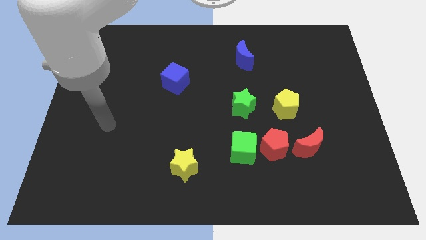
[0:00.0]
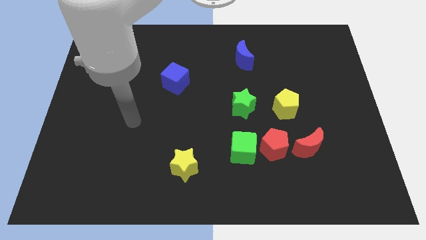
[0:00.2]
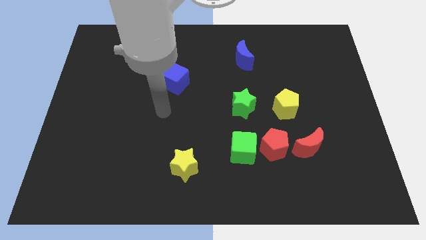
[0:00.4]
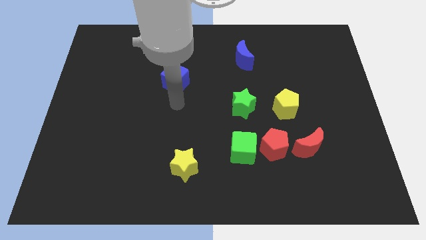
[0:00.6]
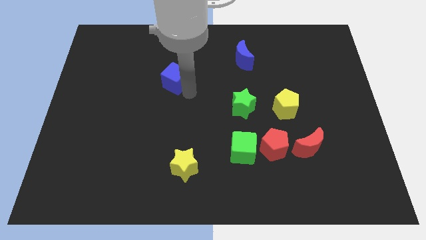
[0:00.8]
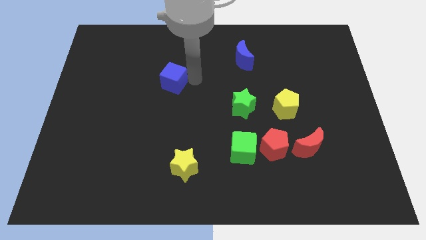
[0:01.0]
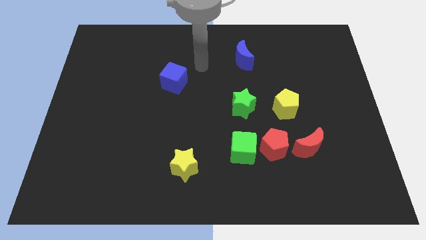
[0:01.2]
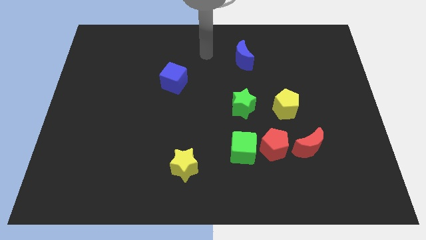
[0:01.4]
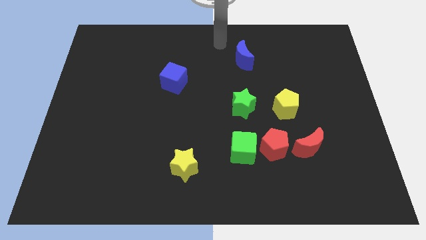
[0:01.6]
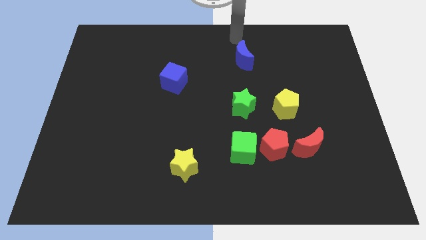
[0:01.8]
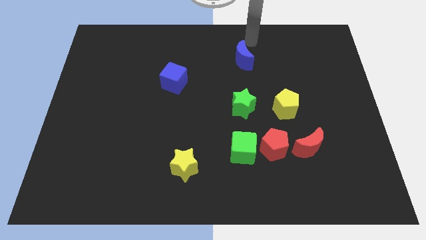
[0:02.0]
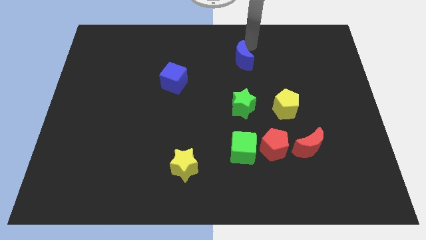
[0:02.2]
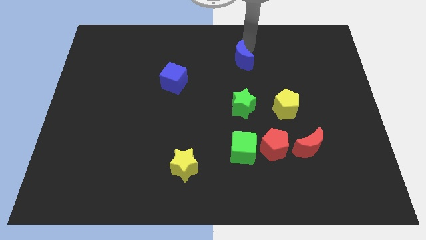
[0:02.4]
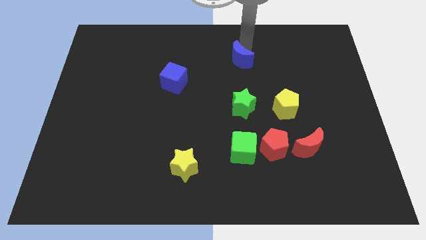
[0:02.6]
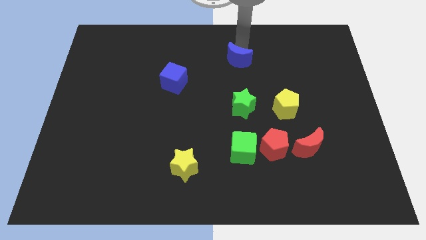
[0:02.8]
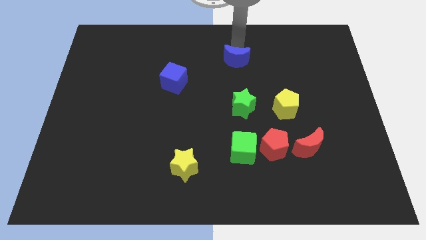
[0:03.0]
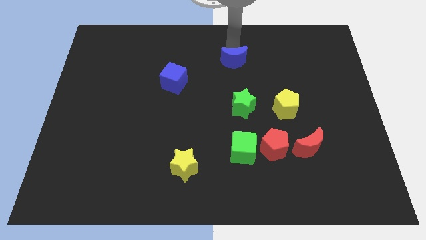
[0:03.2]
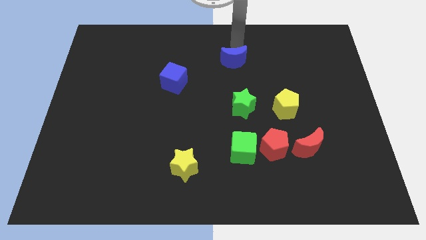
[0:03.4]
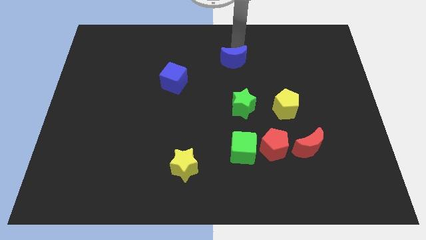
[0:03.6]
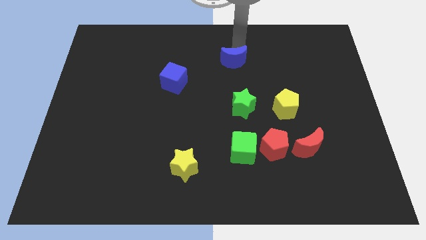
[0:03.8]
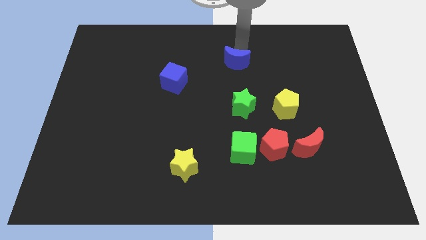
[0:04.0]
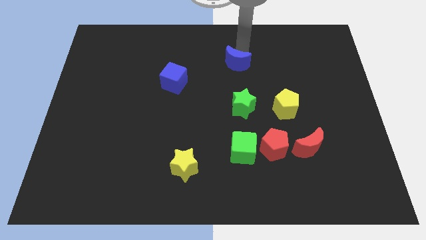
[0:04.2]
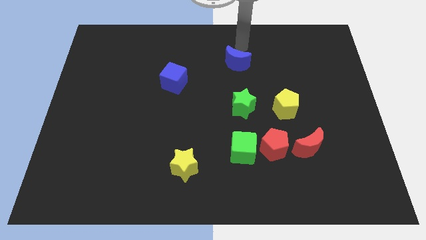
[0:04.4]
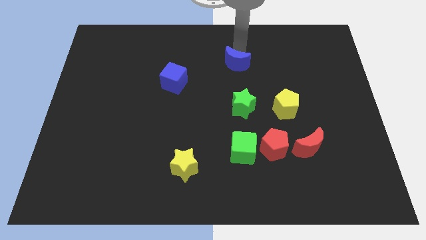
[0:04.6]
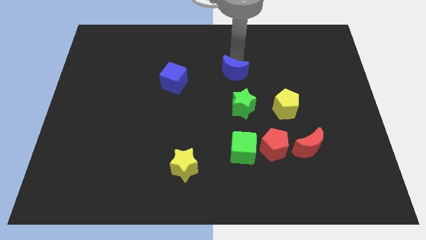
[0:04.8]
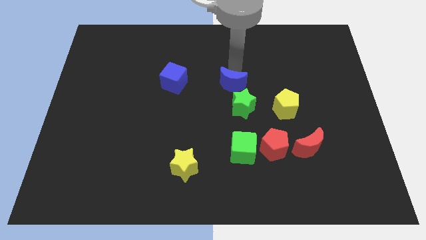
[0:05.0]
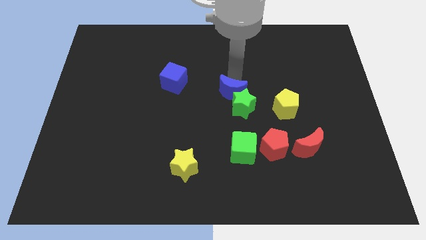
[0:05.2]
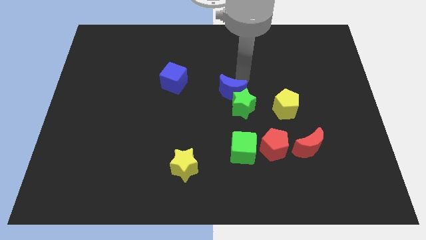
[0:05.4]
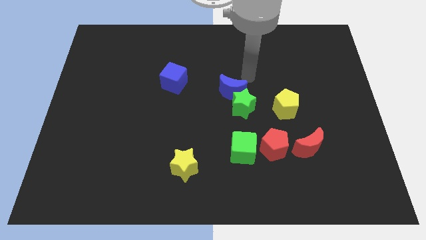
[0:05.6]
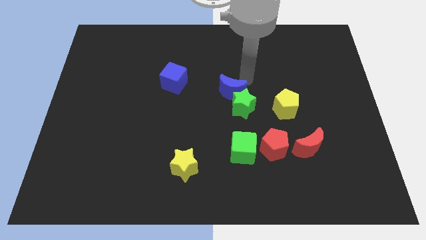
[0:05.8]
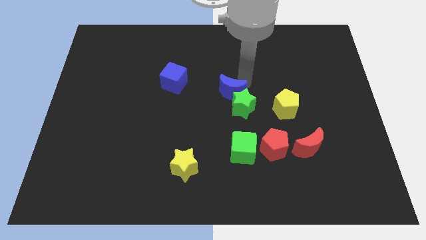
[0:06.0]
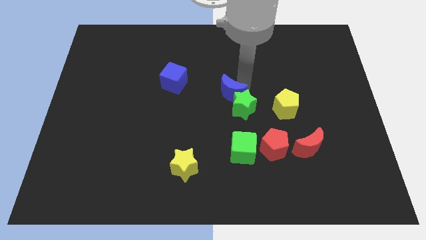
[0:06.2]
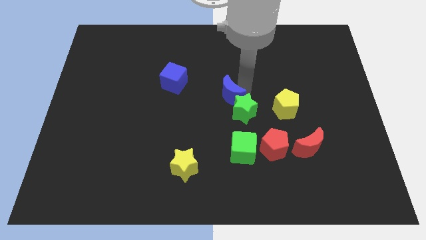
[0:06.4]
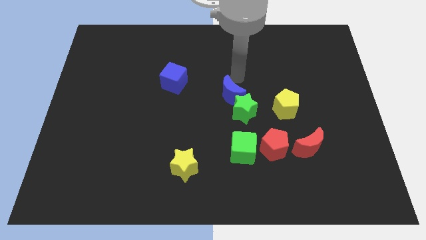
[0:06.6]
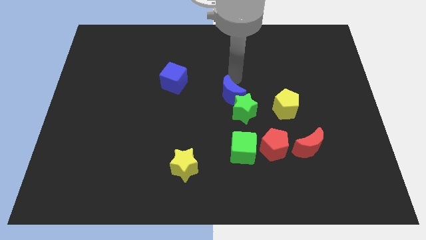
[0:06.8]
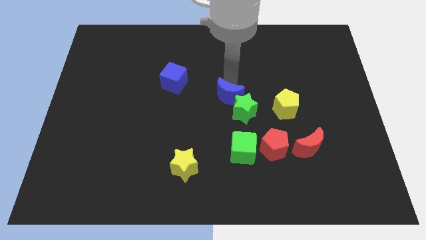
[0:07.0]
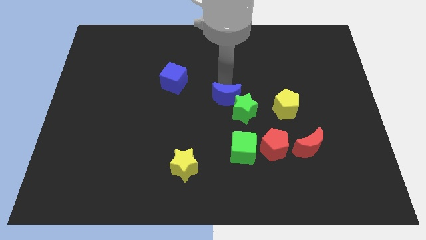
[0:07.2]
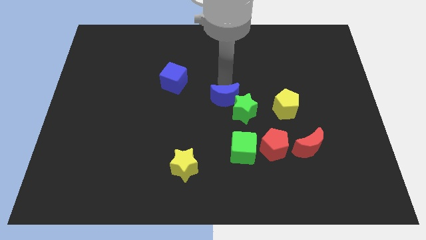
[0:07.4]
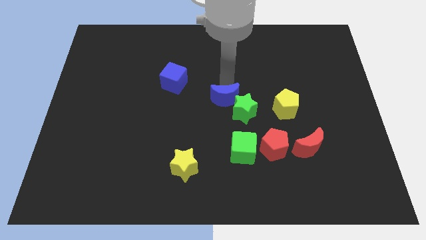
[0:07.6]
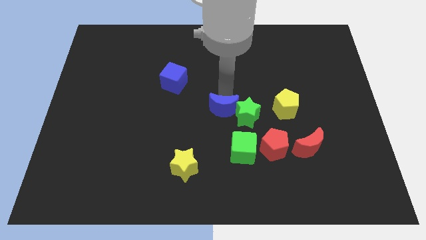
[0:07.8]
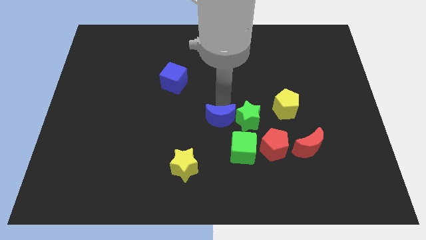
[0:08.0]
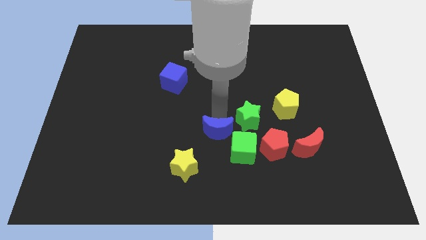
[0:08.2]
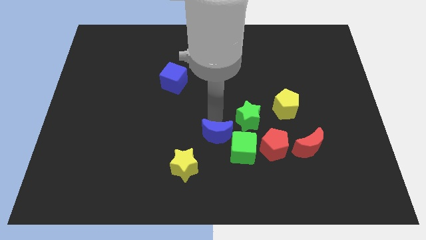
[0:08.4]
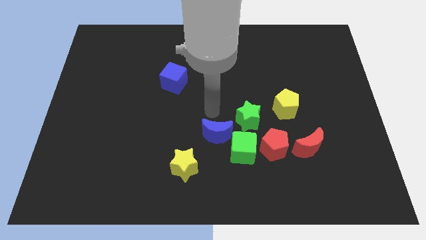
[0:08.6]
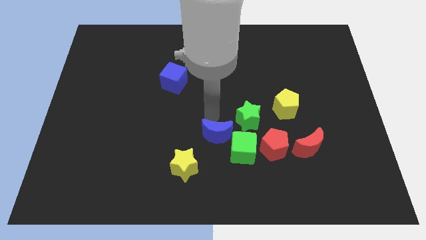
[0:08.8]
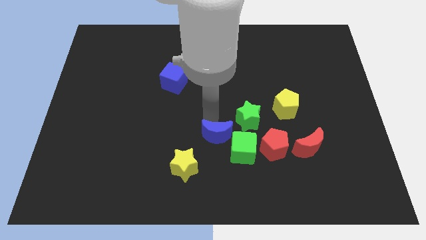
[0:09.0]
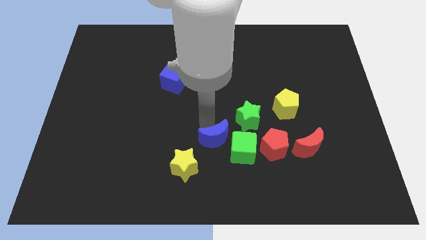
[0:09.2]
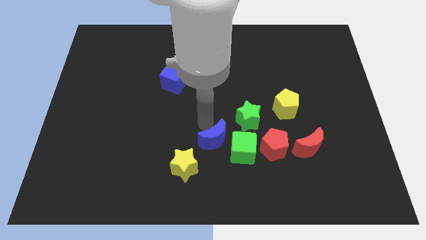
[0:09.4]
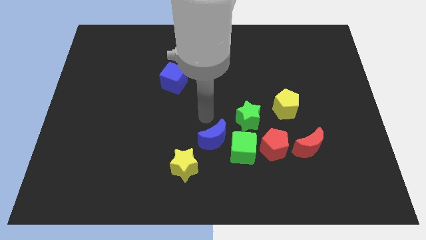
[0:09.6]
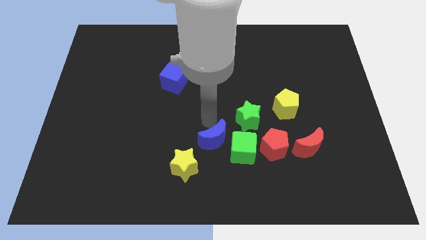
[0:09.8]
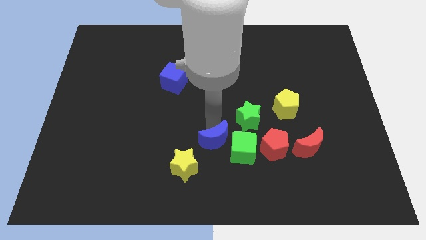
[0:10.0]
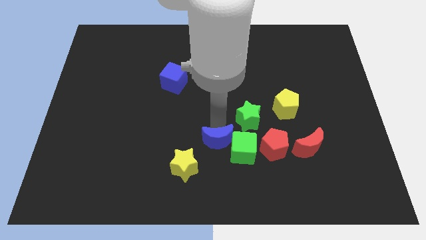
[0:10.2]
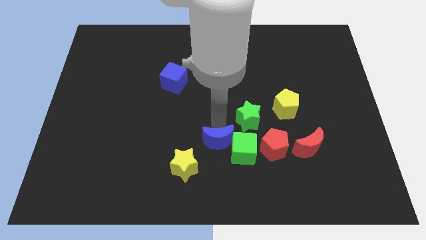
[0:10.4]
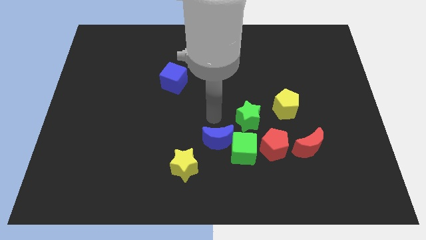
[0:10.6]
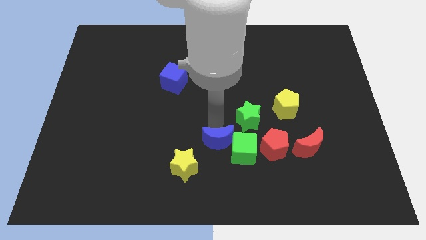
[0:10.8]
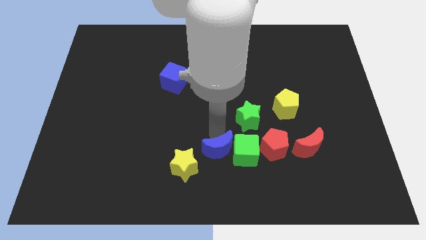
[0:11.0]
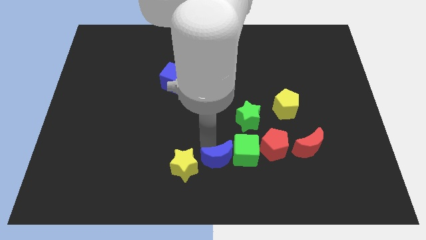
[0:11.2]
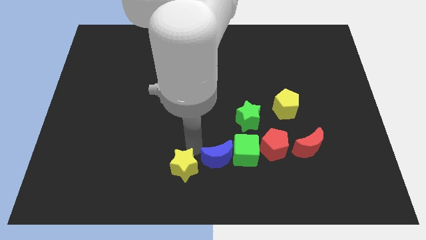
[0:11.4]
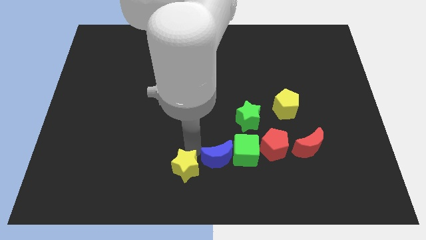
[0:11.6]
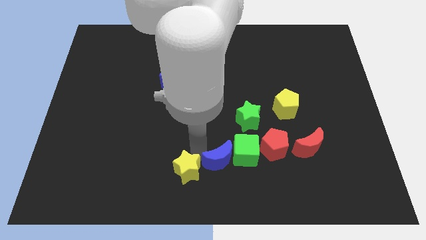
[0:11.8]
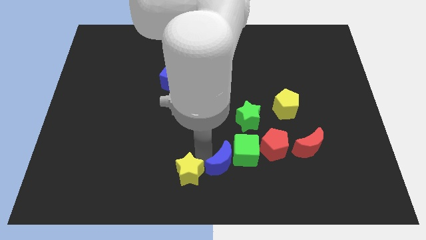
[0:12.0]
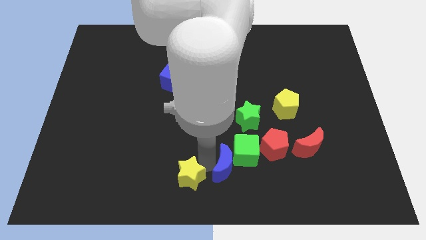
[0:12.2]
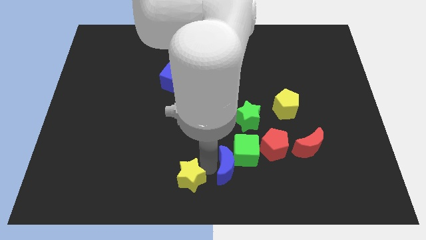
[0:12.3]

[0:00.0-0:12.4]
push the blue moon diagonally down and to the left of the red pentagon

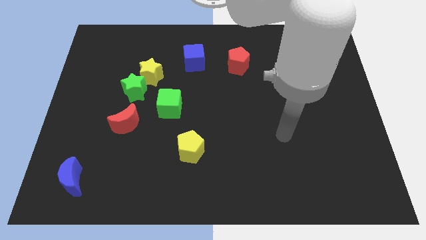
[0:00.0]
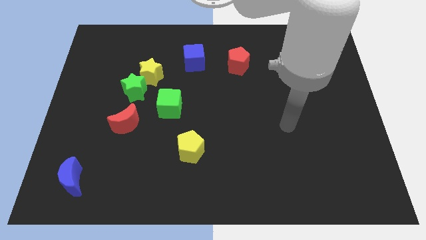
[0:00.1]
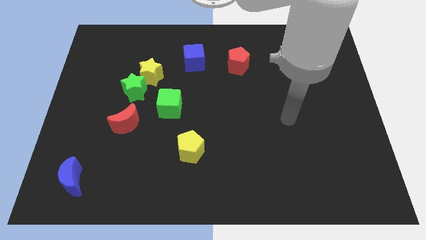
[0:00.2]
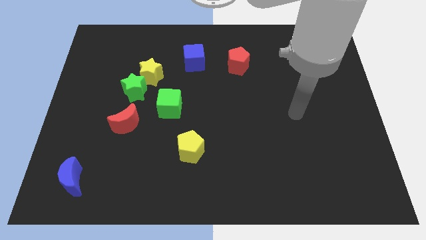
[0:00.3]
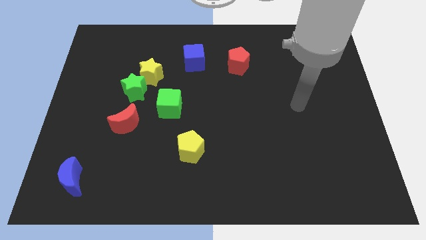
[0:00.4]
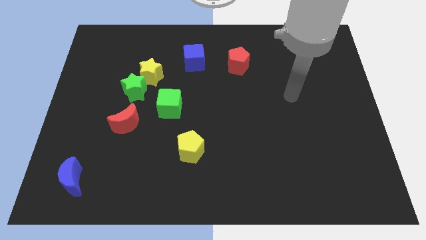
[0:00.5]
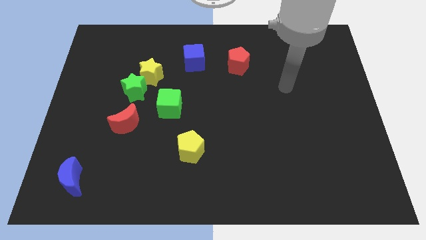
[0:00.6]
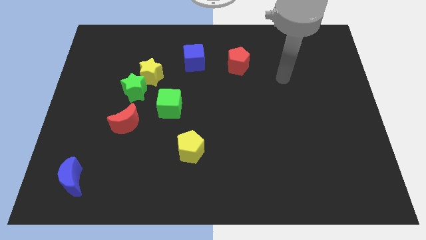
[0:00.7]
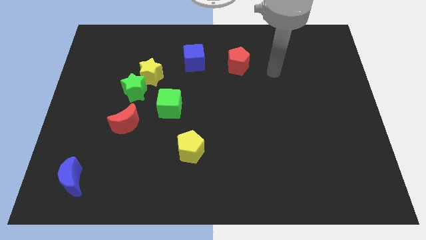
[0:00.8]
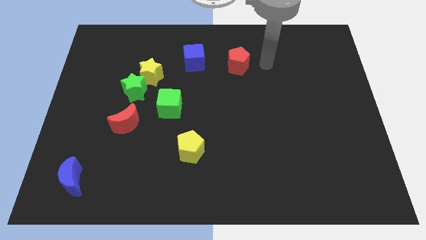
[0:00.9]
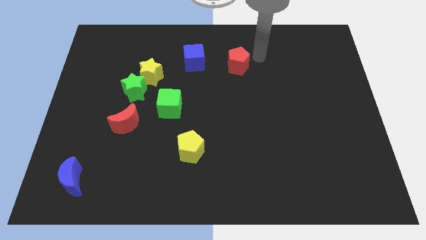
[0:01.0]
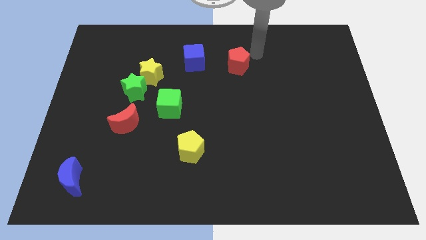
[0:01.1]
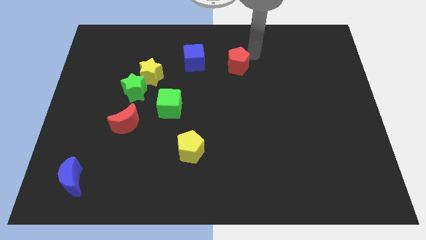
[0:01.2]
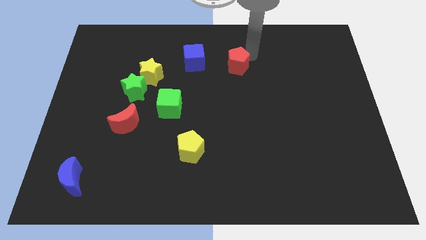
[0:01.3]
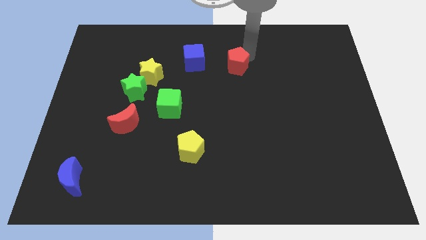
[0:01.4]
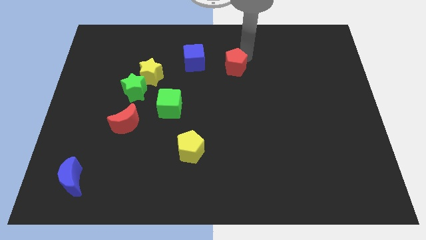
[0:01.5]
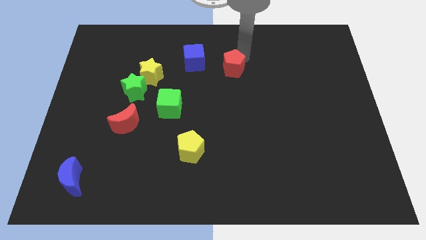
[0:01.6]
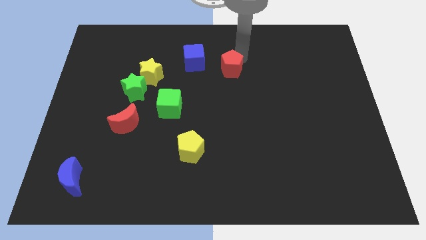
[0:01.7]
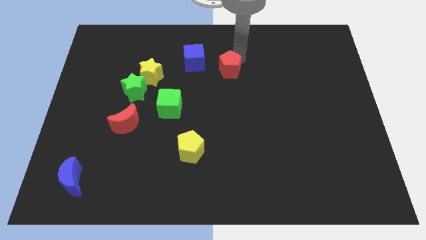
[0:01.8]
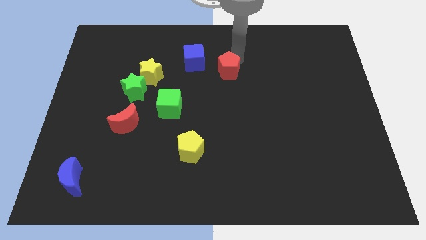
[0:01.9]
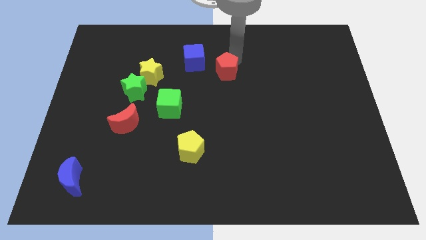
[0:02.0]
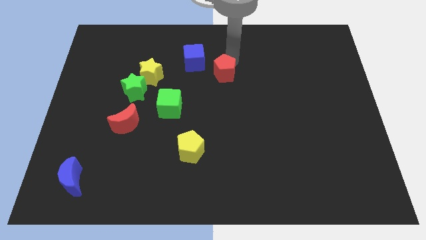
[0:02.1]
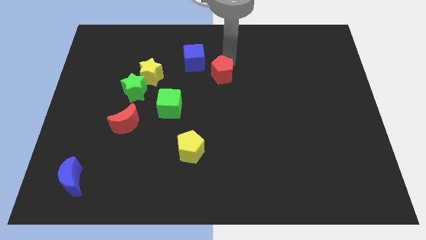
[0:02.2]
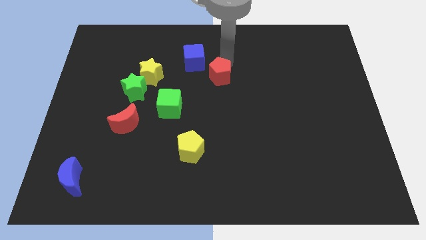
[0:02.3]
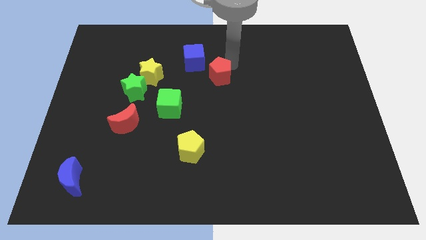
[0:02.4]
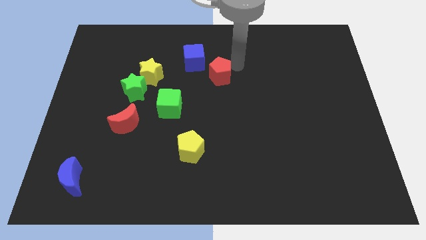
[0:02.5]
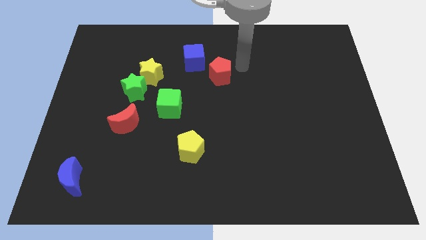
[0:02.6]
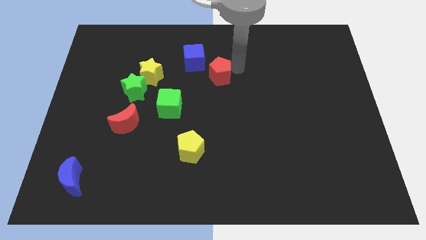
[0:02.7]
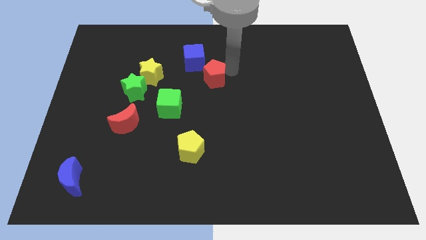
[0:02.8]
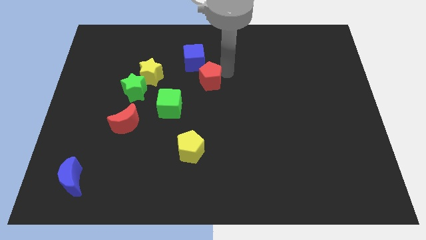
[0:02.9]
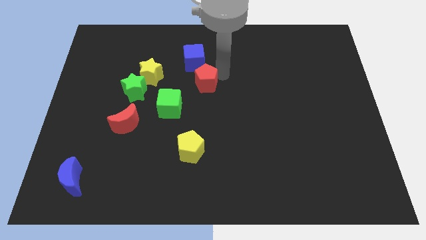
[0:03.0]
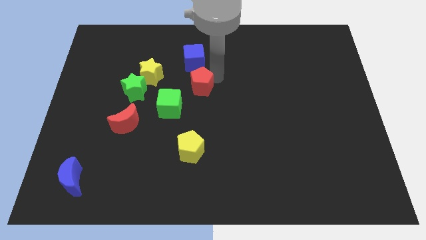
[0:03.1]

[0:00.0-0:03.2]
push the red pentagon right of the green star
